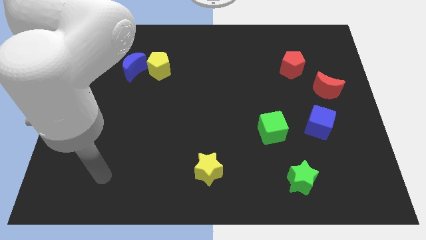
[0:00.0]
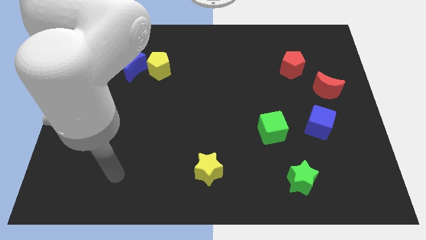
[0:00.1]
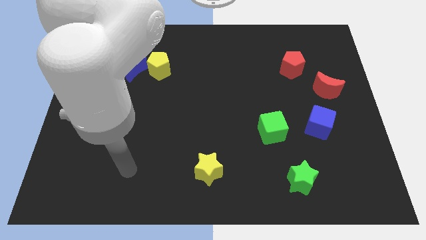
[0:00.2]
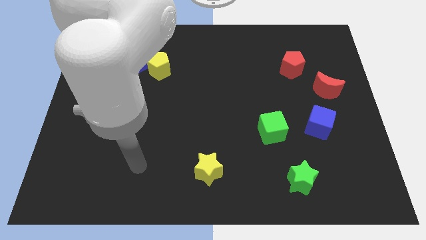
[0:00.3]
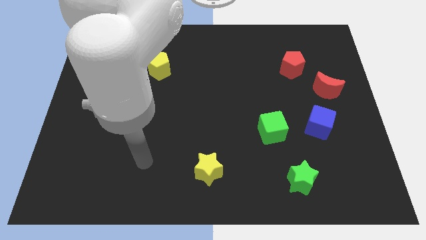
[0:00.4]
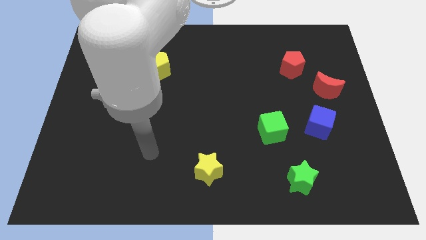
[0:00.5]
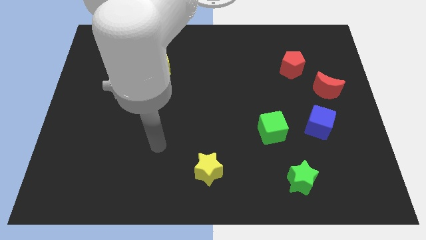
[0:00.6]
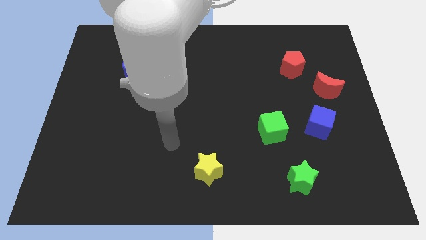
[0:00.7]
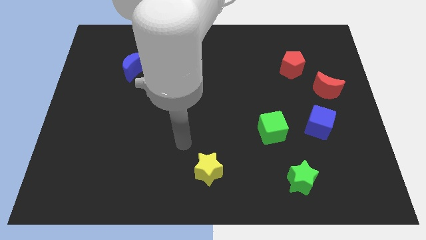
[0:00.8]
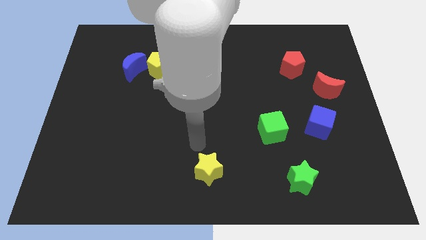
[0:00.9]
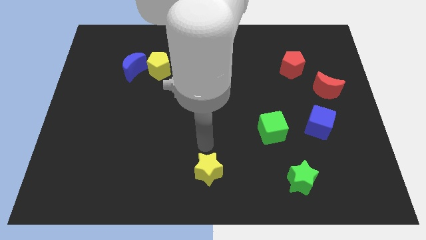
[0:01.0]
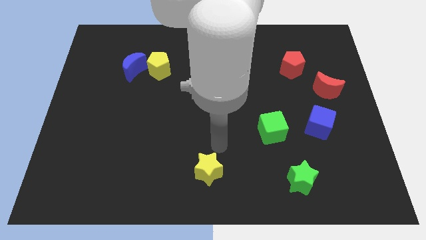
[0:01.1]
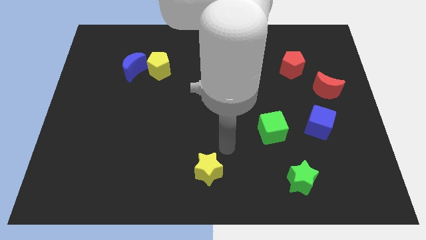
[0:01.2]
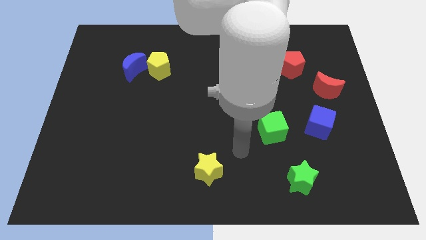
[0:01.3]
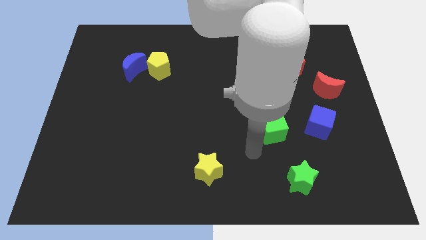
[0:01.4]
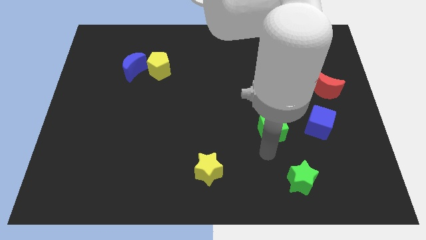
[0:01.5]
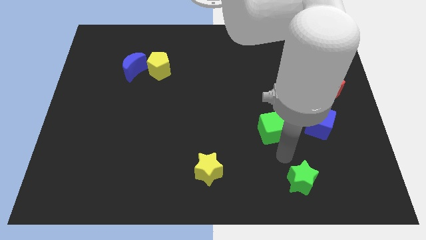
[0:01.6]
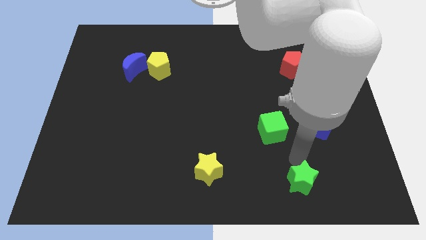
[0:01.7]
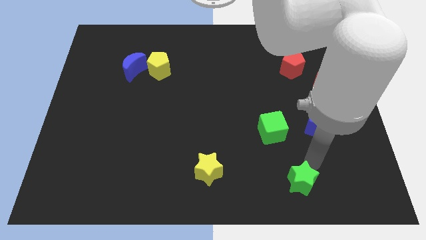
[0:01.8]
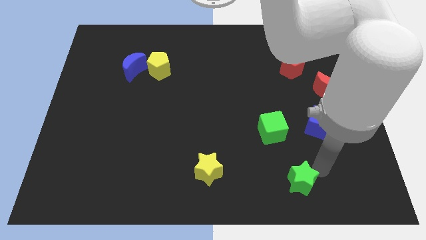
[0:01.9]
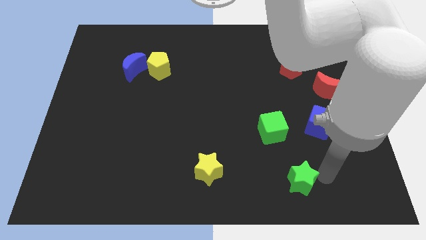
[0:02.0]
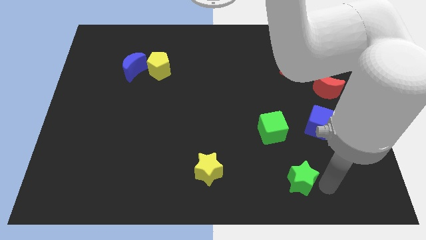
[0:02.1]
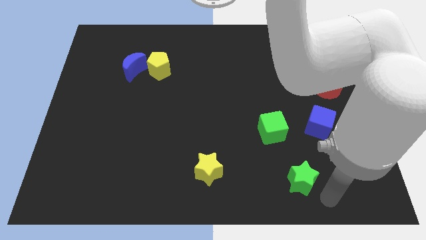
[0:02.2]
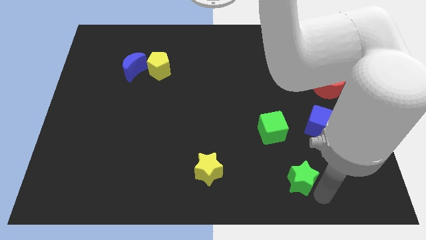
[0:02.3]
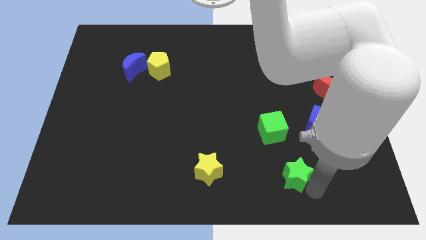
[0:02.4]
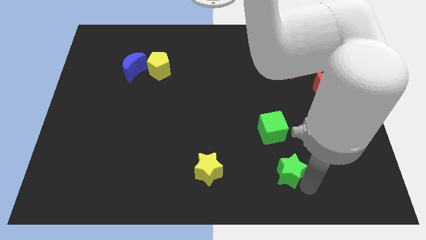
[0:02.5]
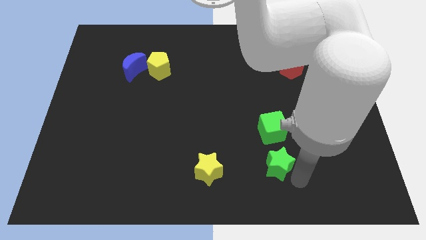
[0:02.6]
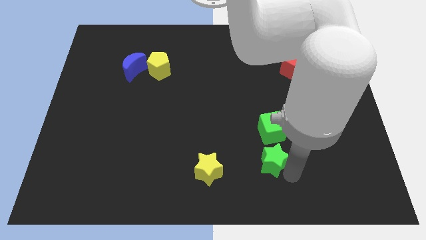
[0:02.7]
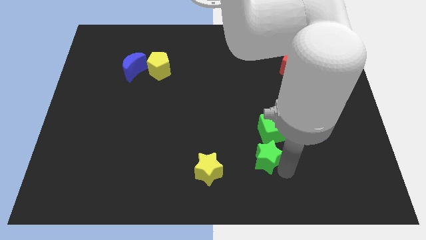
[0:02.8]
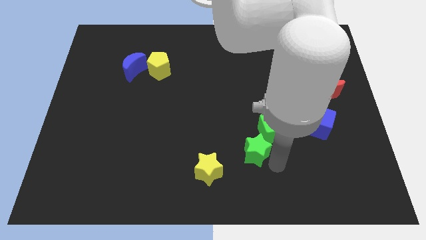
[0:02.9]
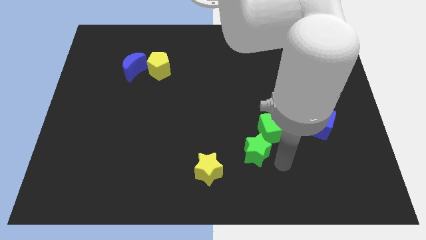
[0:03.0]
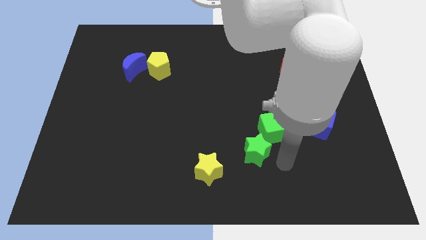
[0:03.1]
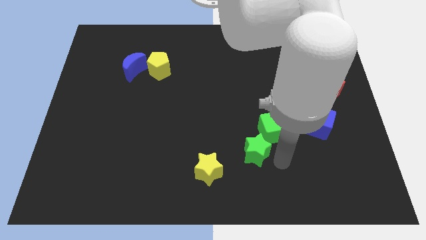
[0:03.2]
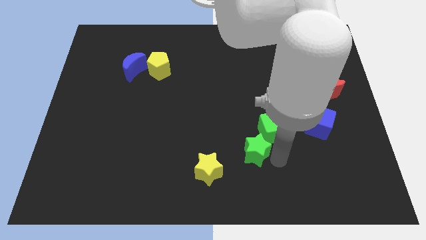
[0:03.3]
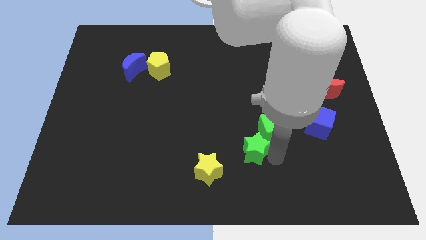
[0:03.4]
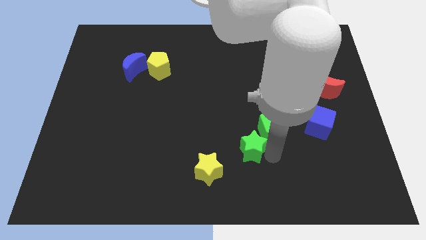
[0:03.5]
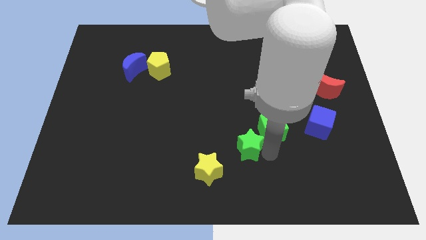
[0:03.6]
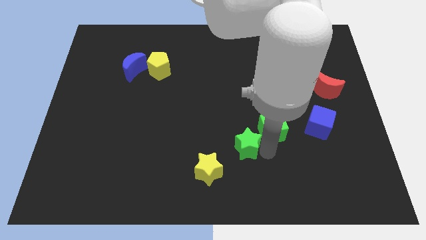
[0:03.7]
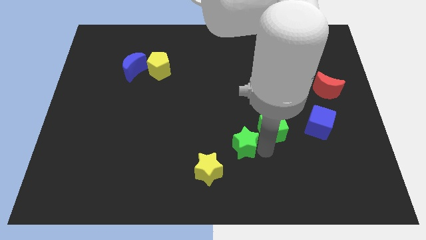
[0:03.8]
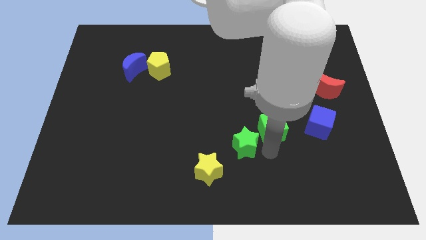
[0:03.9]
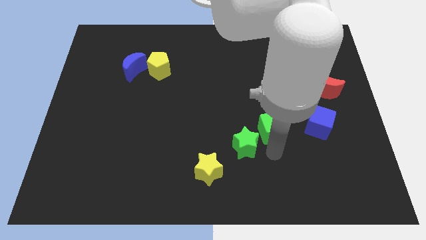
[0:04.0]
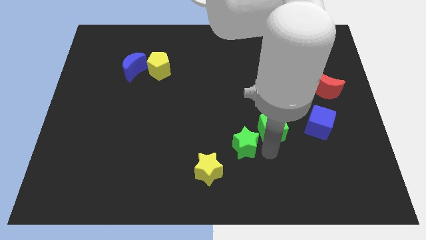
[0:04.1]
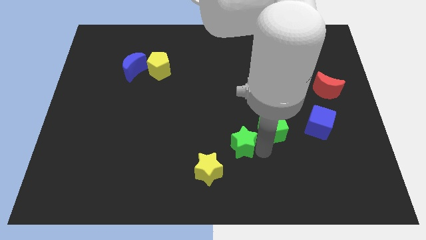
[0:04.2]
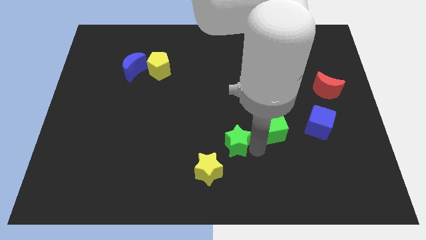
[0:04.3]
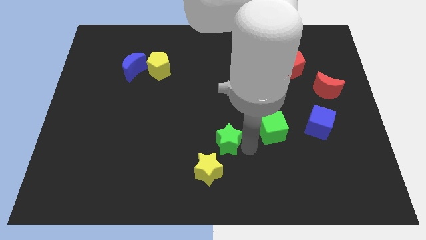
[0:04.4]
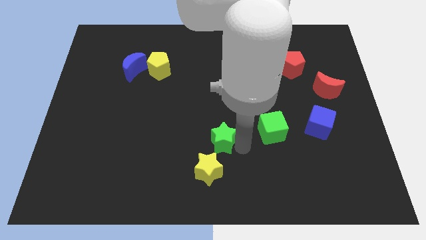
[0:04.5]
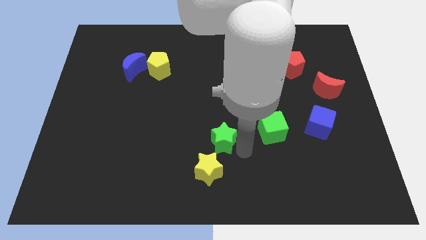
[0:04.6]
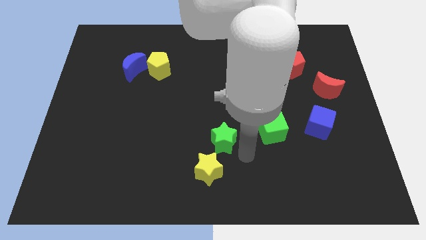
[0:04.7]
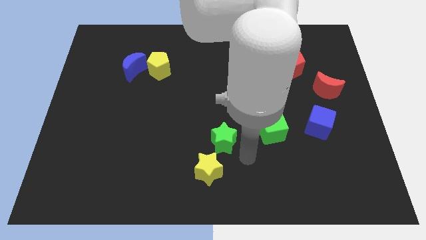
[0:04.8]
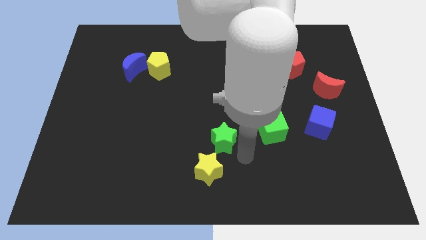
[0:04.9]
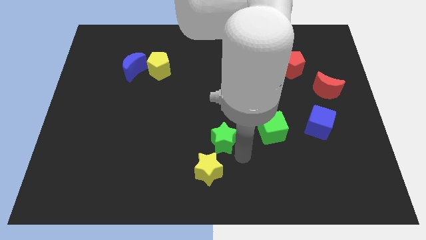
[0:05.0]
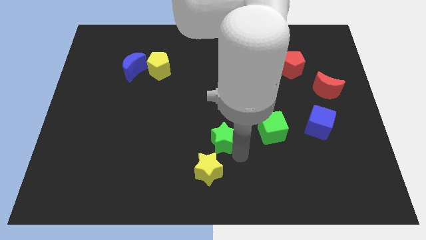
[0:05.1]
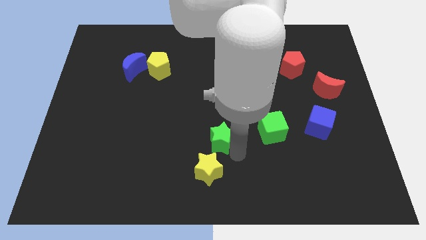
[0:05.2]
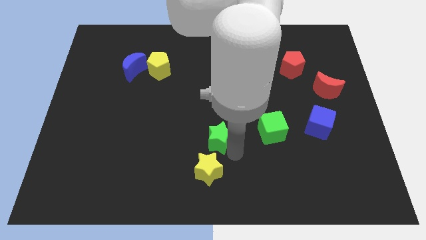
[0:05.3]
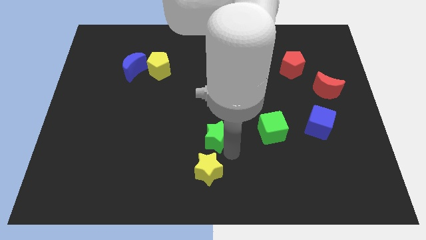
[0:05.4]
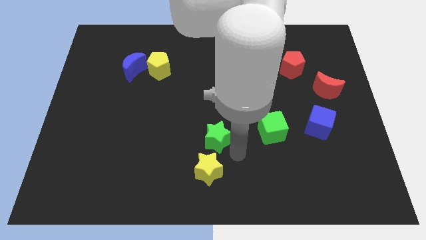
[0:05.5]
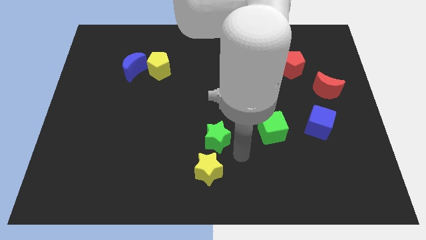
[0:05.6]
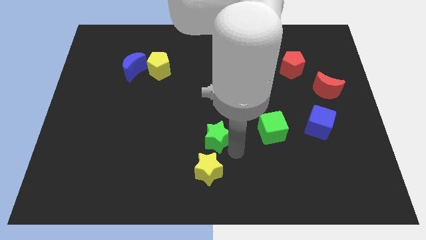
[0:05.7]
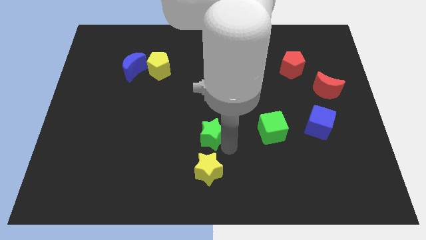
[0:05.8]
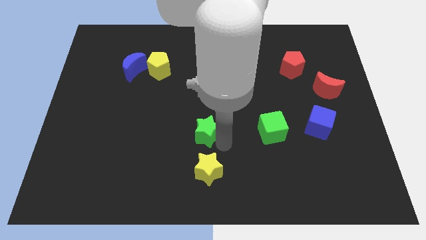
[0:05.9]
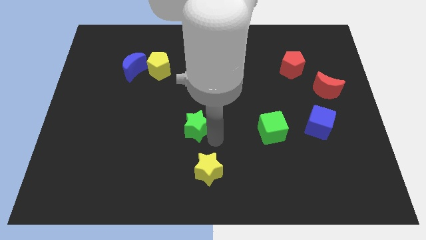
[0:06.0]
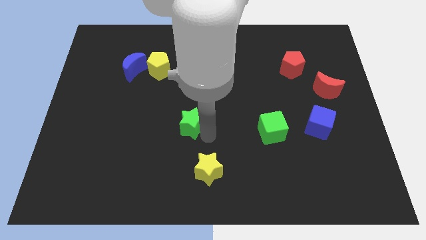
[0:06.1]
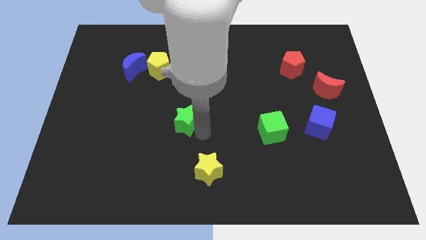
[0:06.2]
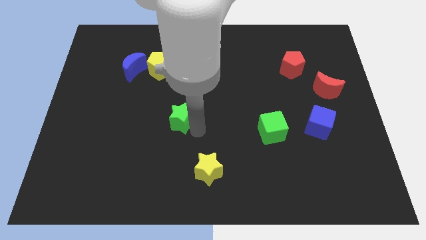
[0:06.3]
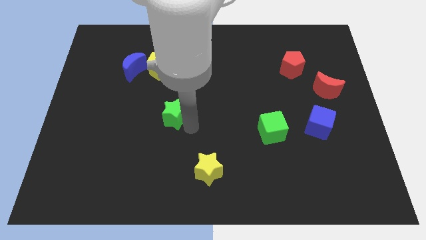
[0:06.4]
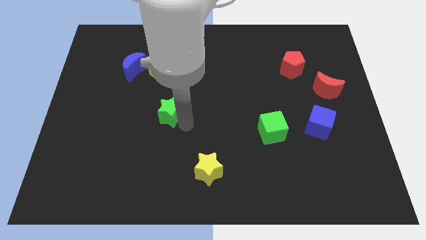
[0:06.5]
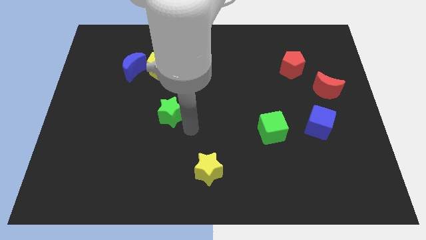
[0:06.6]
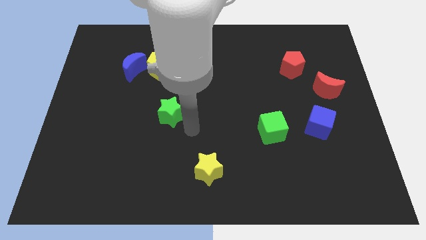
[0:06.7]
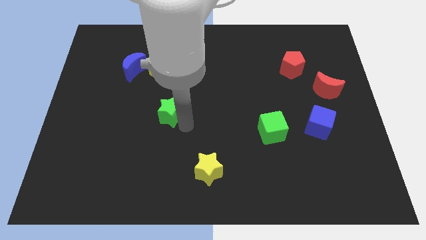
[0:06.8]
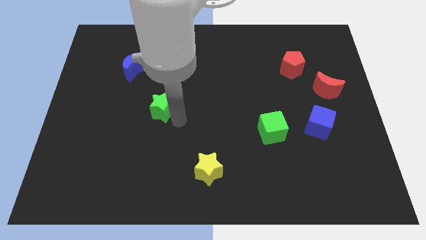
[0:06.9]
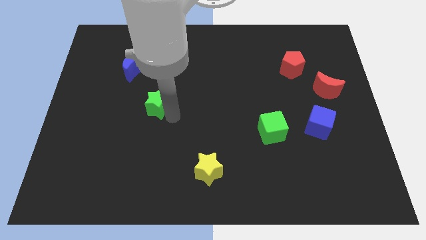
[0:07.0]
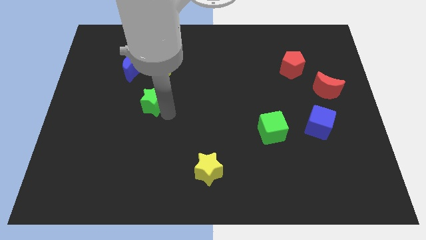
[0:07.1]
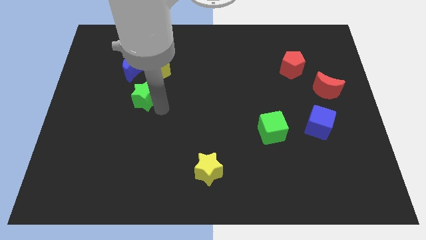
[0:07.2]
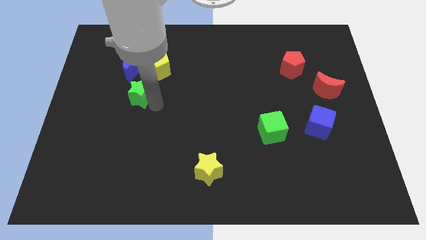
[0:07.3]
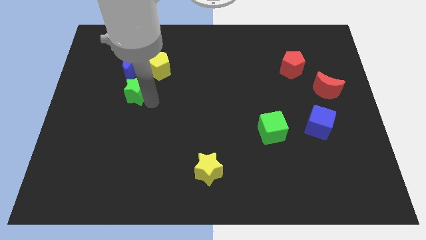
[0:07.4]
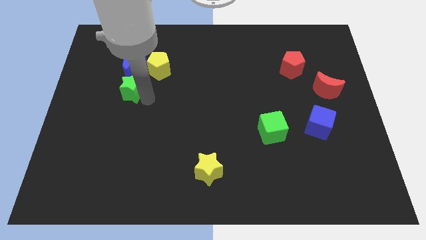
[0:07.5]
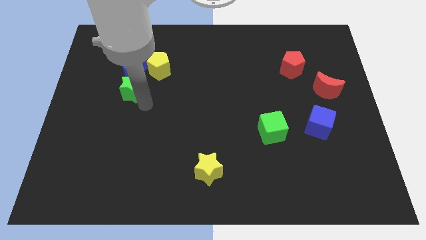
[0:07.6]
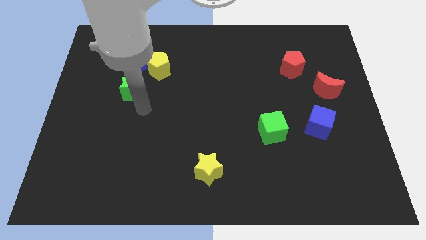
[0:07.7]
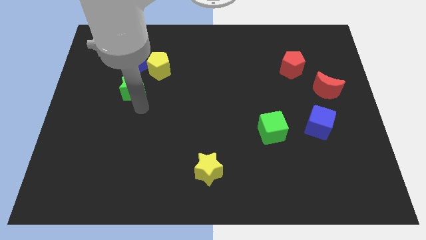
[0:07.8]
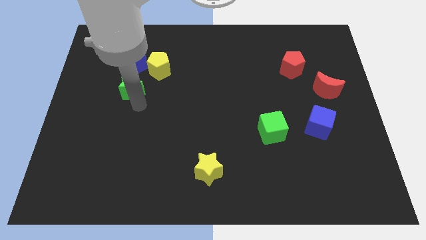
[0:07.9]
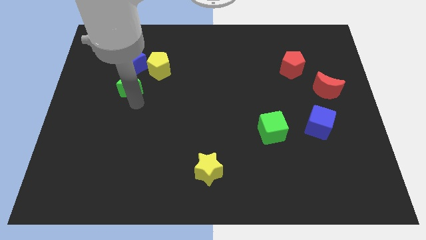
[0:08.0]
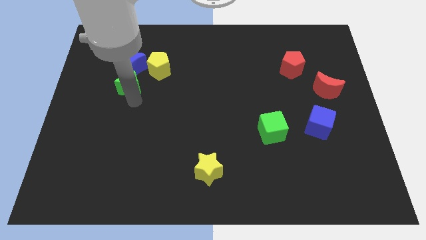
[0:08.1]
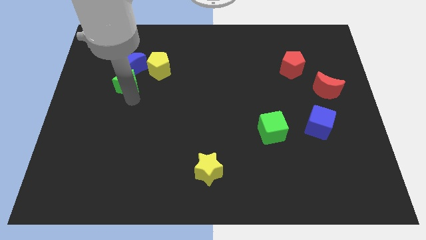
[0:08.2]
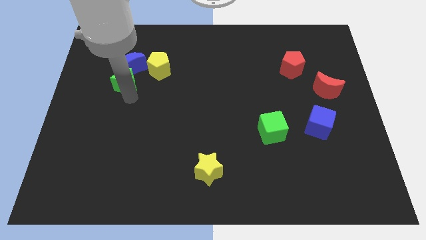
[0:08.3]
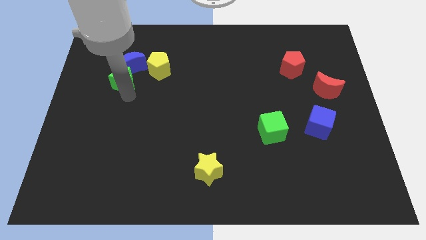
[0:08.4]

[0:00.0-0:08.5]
push the green star to the left of the yellow pentagon
